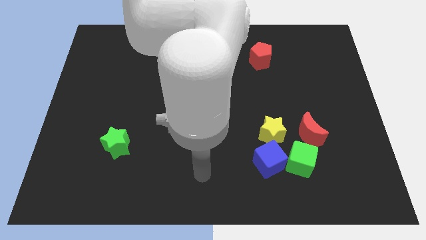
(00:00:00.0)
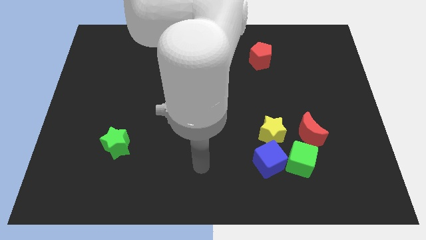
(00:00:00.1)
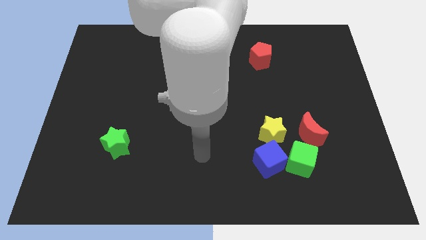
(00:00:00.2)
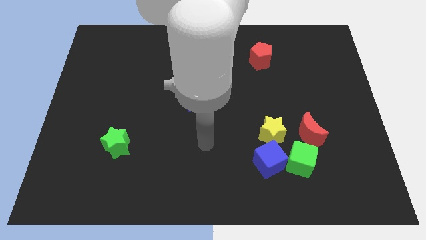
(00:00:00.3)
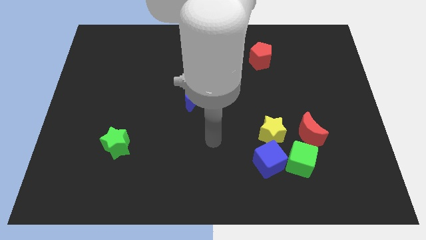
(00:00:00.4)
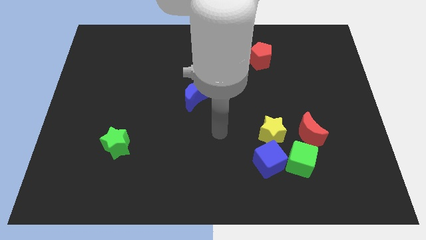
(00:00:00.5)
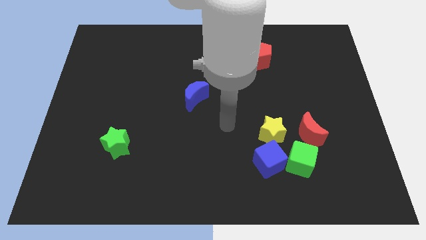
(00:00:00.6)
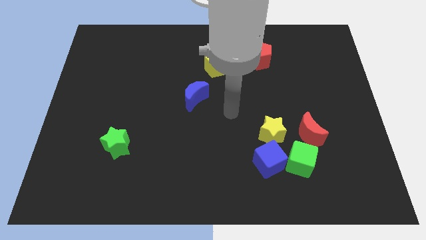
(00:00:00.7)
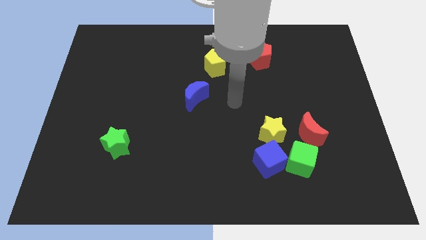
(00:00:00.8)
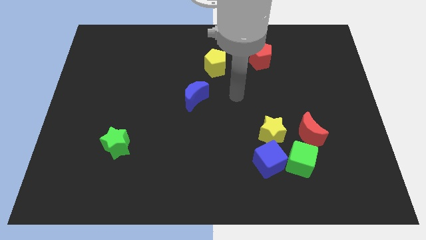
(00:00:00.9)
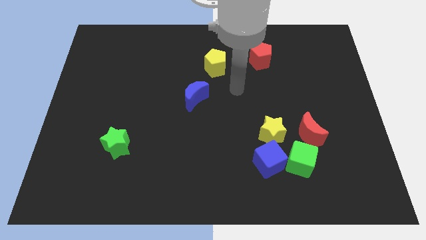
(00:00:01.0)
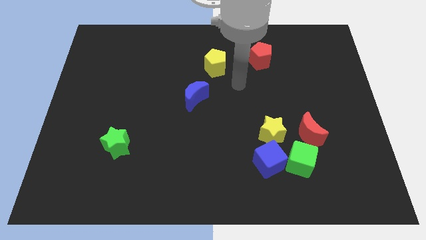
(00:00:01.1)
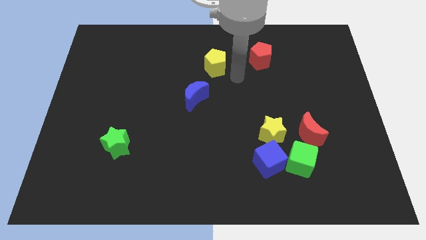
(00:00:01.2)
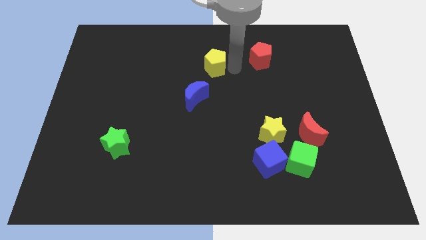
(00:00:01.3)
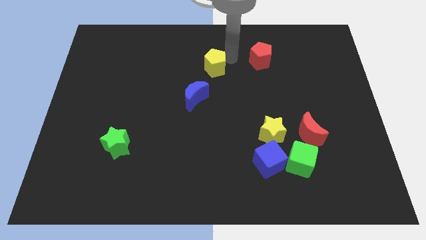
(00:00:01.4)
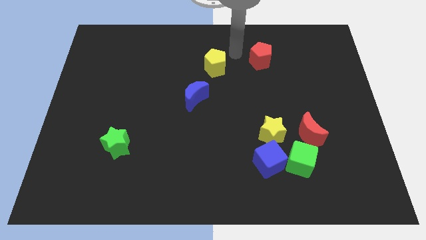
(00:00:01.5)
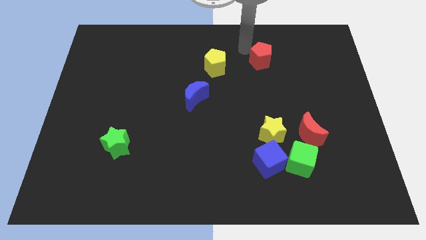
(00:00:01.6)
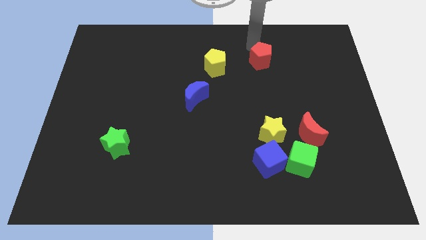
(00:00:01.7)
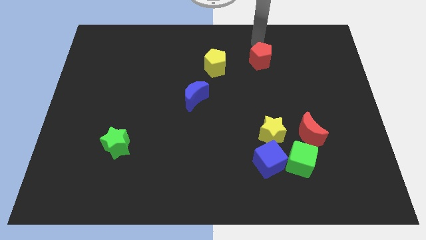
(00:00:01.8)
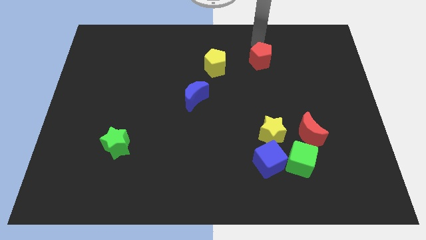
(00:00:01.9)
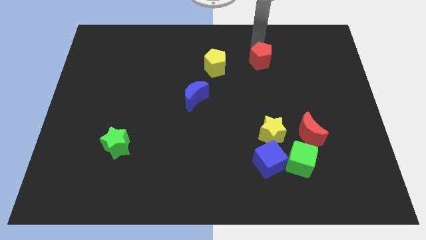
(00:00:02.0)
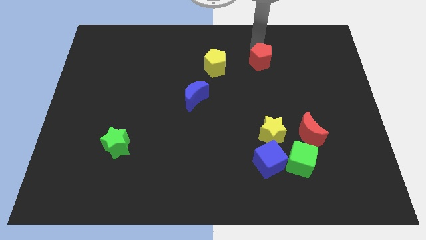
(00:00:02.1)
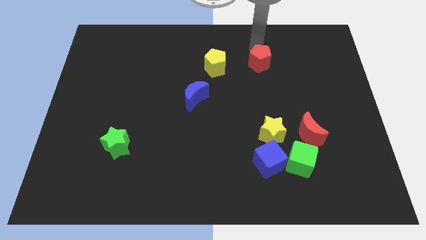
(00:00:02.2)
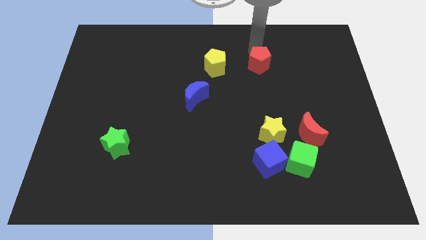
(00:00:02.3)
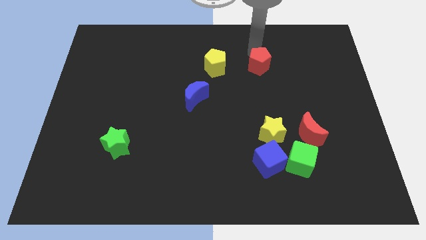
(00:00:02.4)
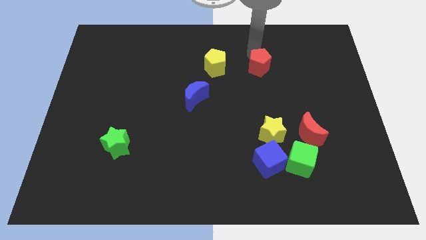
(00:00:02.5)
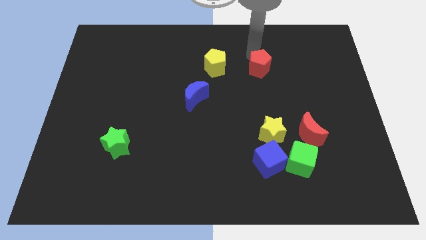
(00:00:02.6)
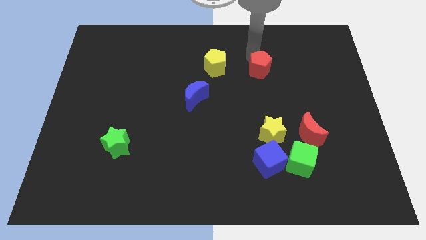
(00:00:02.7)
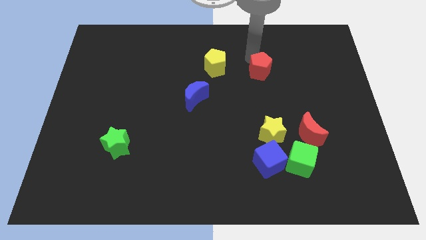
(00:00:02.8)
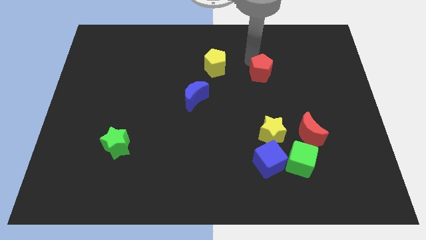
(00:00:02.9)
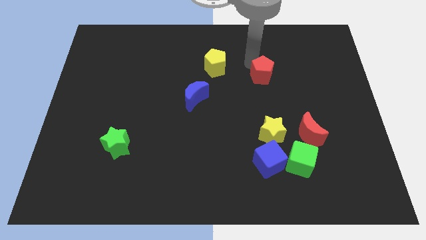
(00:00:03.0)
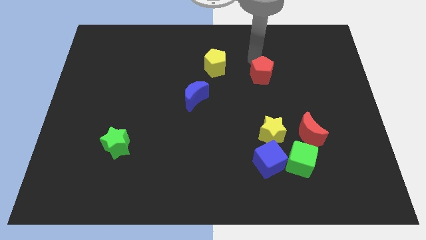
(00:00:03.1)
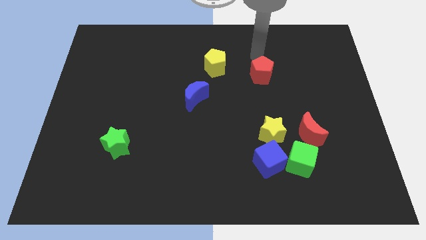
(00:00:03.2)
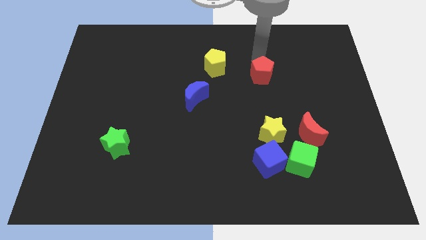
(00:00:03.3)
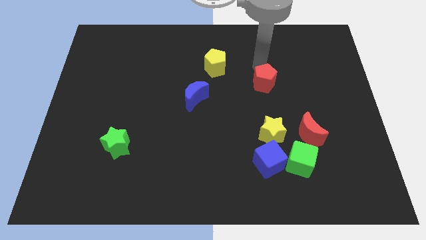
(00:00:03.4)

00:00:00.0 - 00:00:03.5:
slightly move the red pentagon down

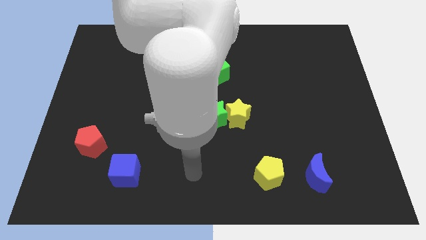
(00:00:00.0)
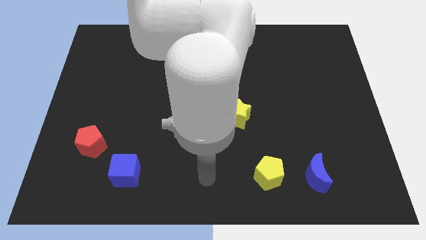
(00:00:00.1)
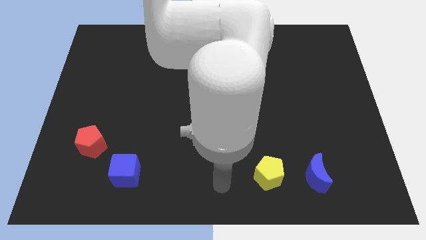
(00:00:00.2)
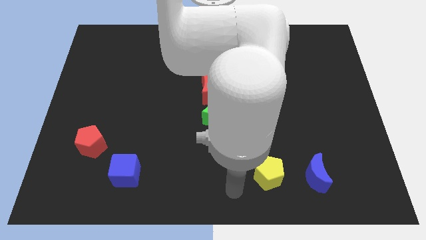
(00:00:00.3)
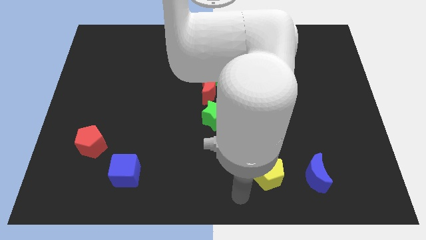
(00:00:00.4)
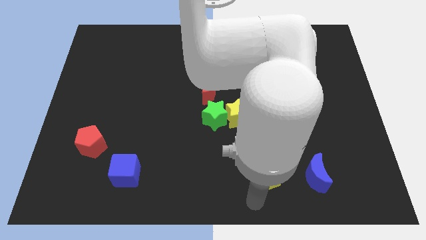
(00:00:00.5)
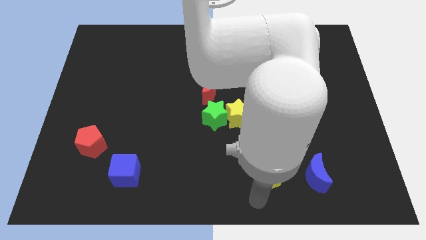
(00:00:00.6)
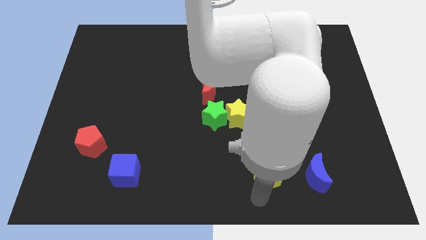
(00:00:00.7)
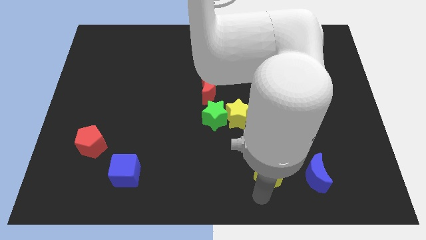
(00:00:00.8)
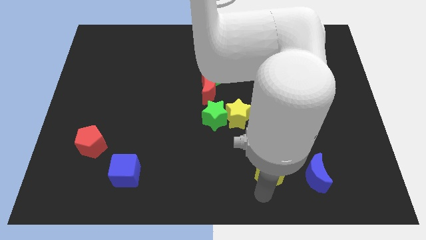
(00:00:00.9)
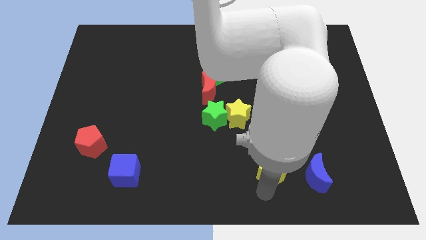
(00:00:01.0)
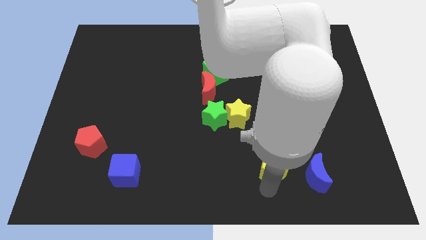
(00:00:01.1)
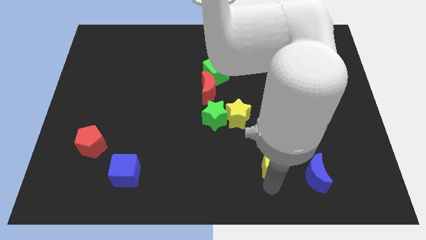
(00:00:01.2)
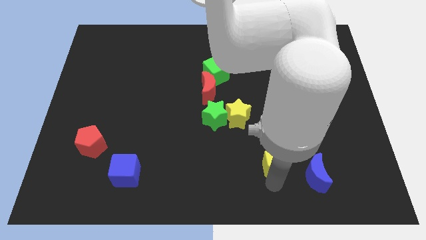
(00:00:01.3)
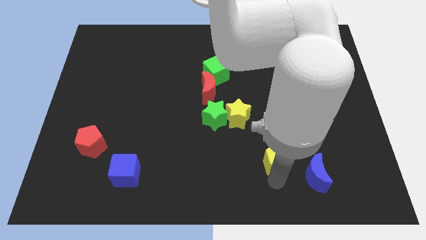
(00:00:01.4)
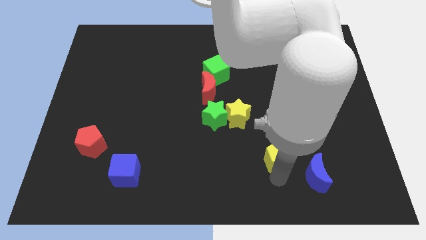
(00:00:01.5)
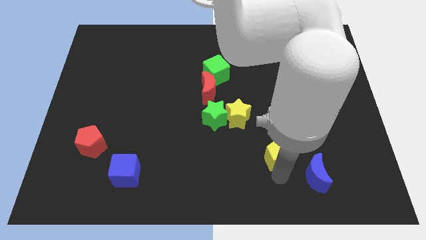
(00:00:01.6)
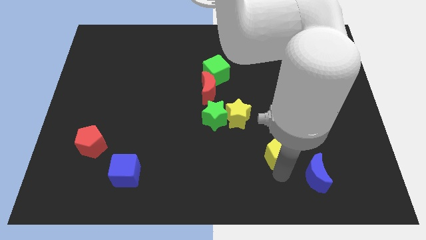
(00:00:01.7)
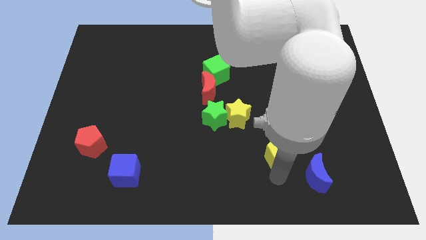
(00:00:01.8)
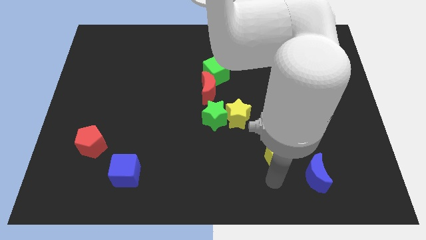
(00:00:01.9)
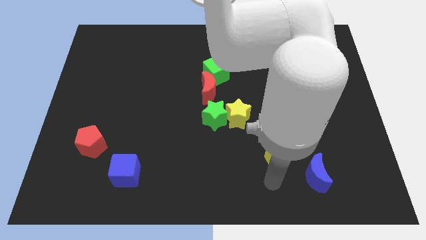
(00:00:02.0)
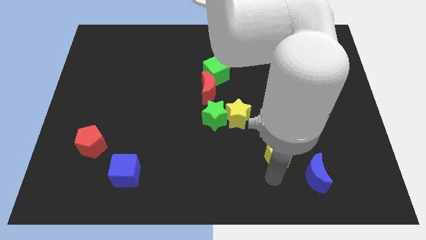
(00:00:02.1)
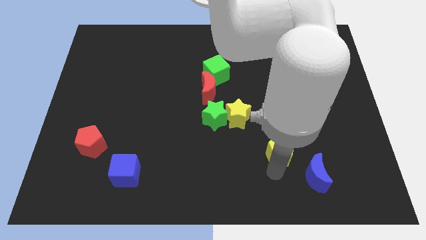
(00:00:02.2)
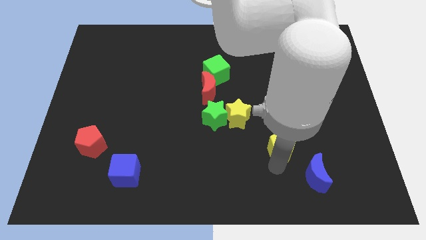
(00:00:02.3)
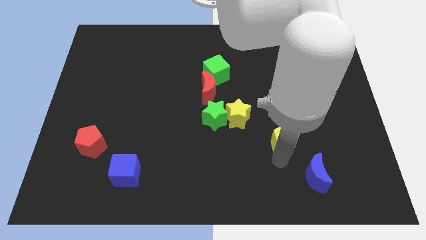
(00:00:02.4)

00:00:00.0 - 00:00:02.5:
slightly slide the yellow pentagon upwards

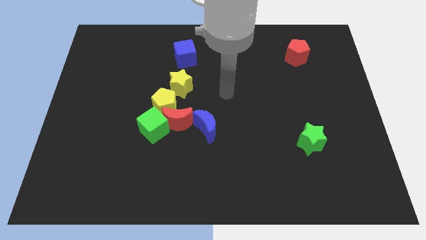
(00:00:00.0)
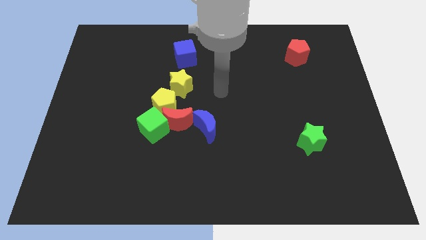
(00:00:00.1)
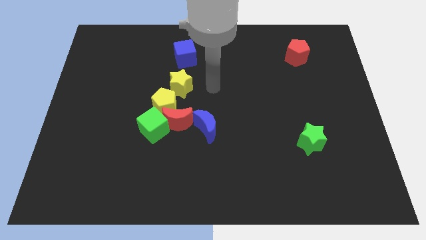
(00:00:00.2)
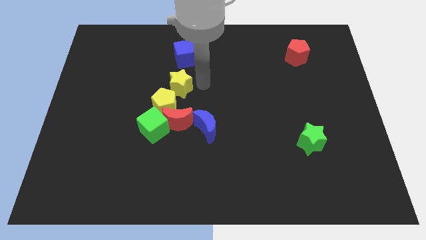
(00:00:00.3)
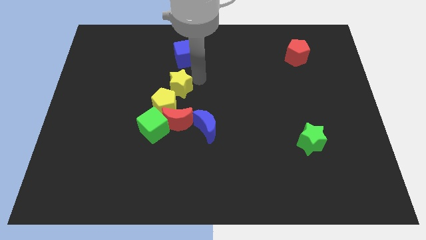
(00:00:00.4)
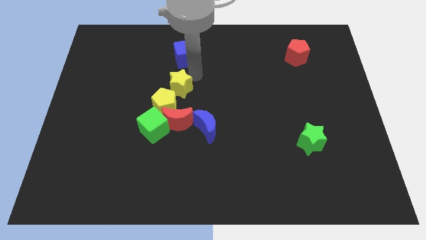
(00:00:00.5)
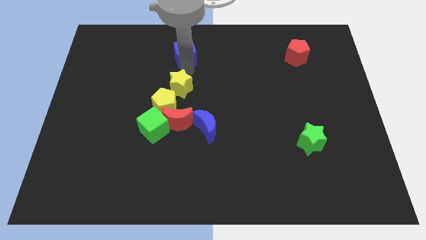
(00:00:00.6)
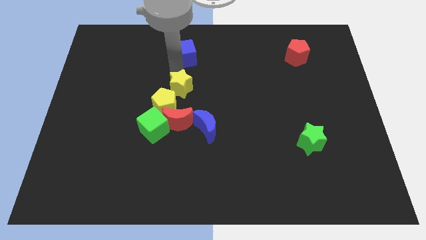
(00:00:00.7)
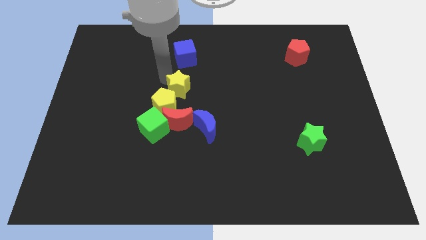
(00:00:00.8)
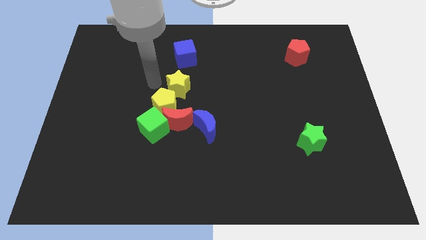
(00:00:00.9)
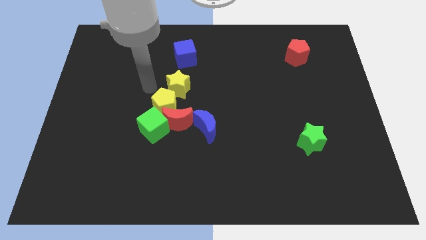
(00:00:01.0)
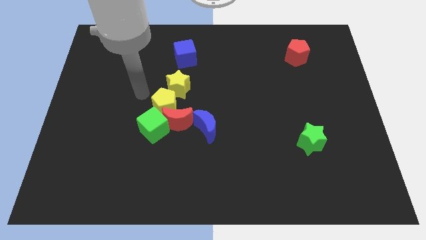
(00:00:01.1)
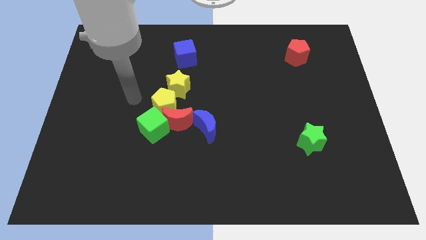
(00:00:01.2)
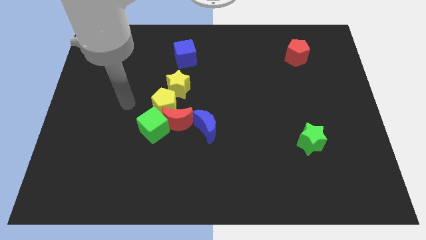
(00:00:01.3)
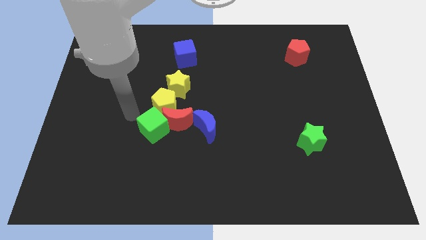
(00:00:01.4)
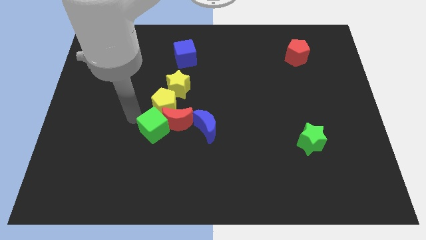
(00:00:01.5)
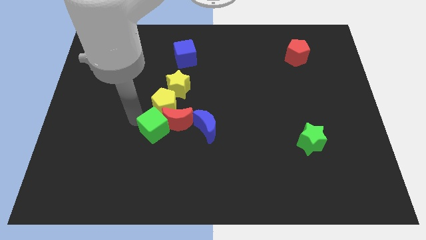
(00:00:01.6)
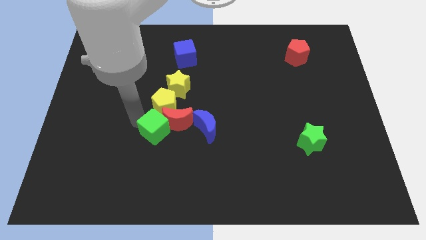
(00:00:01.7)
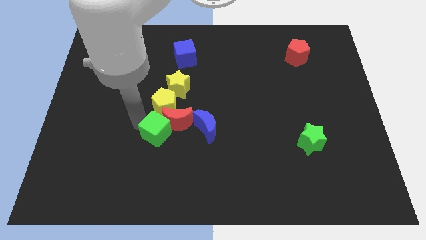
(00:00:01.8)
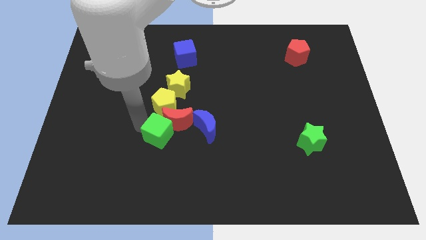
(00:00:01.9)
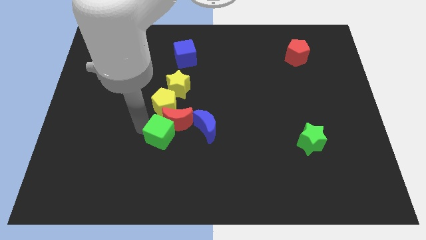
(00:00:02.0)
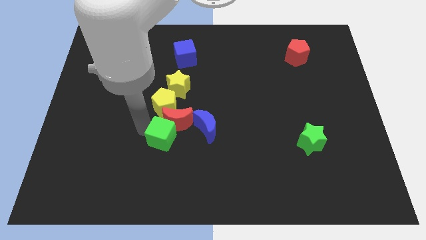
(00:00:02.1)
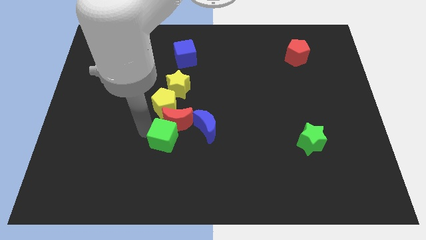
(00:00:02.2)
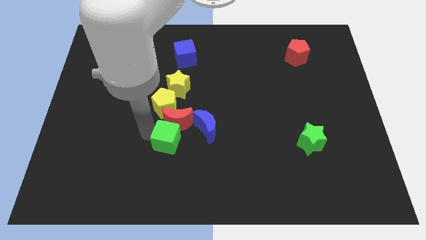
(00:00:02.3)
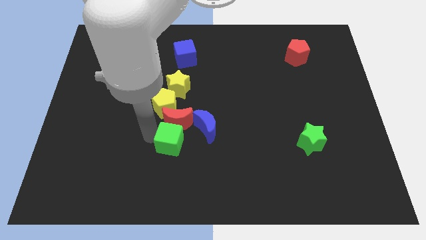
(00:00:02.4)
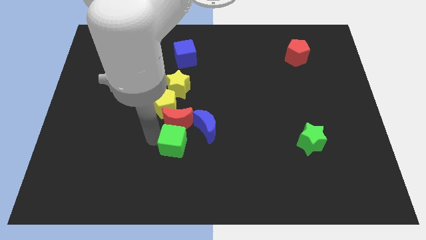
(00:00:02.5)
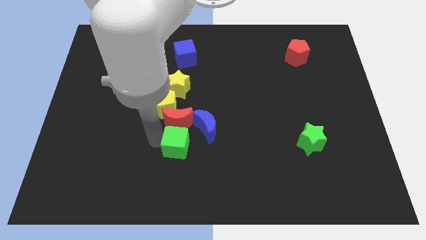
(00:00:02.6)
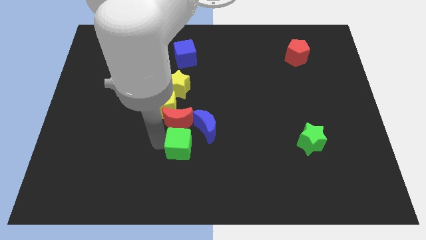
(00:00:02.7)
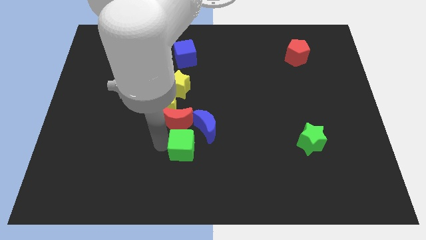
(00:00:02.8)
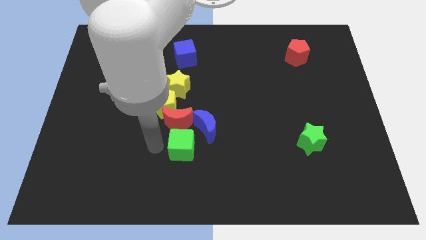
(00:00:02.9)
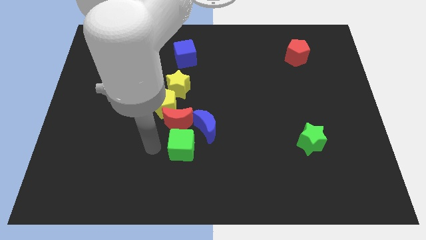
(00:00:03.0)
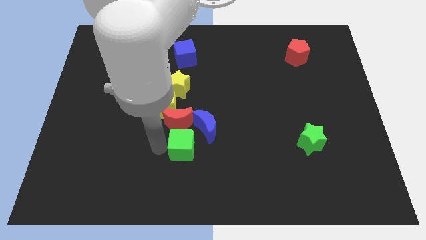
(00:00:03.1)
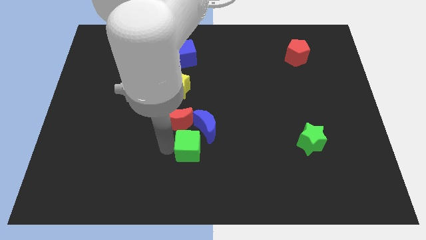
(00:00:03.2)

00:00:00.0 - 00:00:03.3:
slightly push the green cube right
